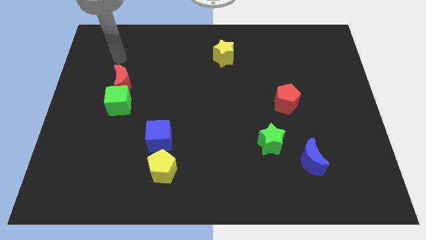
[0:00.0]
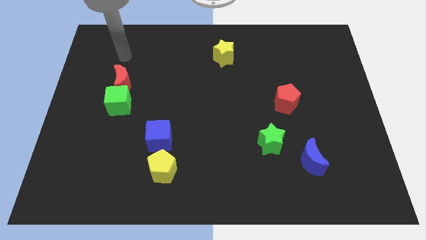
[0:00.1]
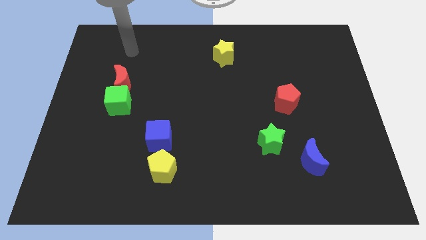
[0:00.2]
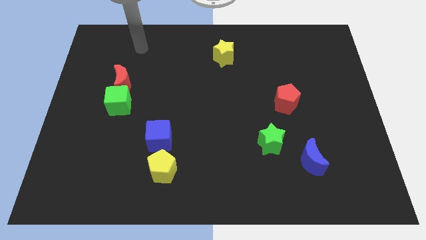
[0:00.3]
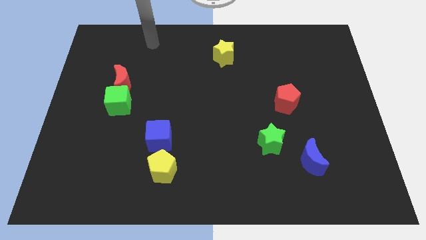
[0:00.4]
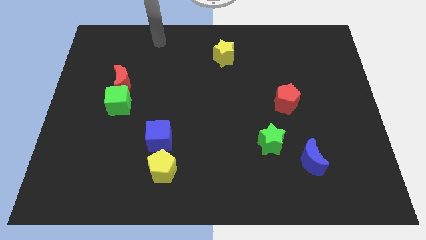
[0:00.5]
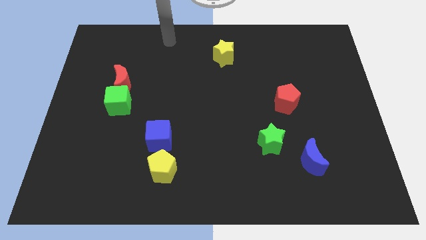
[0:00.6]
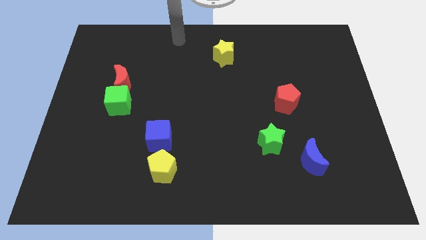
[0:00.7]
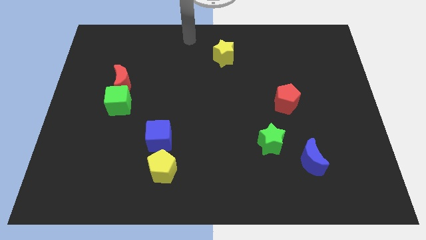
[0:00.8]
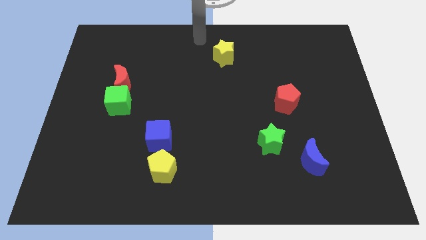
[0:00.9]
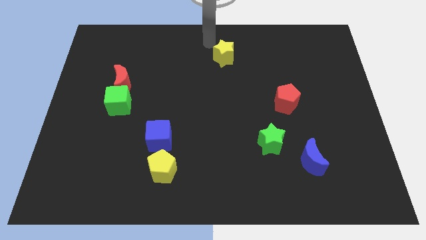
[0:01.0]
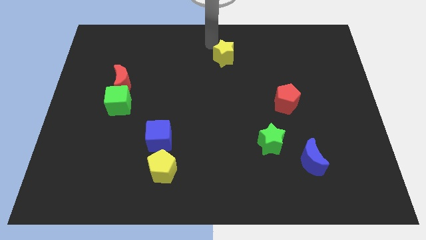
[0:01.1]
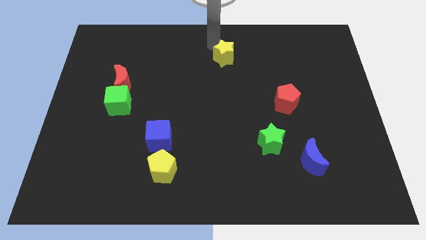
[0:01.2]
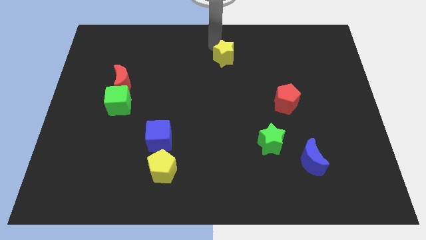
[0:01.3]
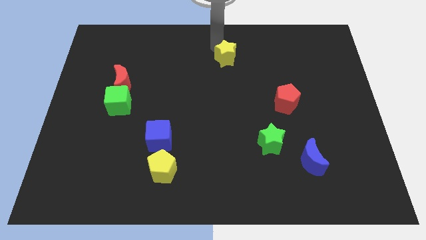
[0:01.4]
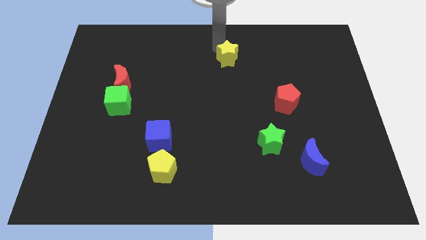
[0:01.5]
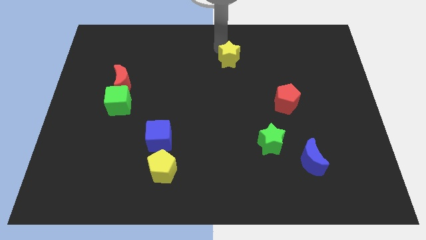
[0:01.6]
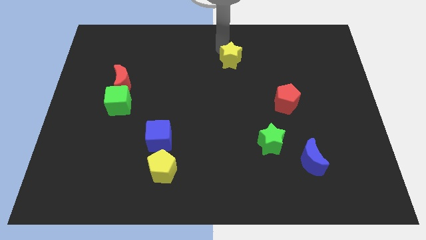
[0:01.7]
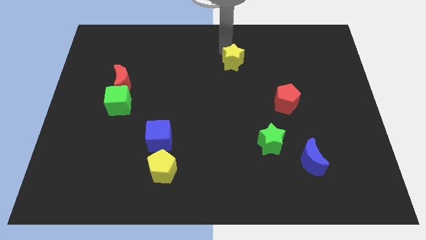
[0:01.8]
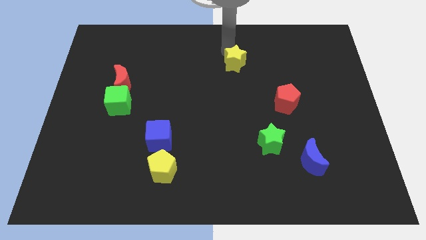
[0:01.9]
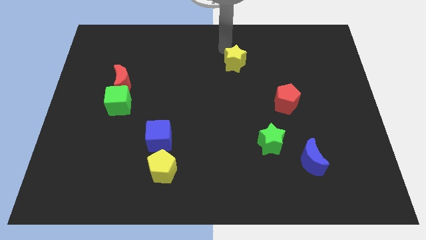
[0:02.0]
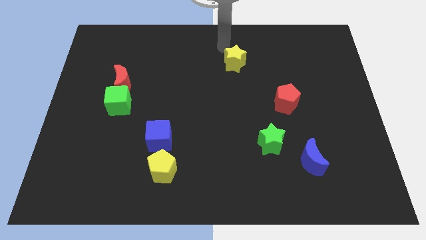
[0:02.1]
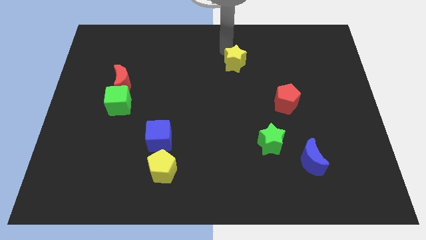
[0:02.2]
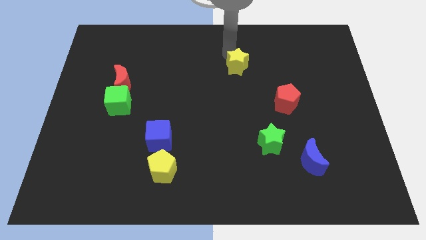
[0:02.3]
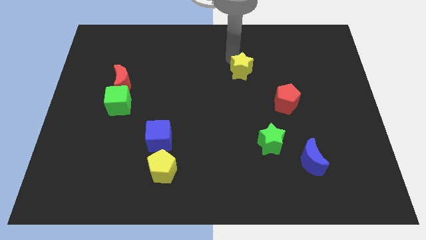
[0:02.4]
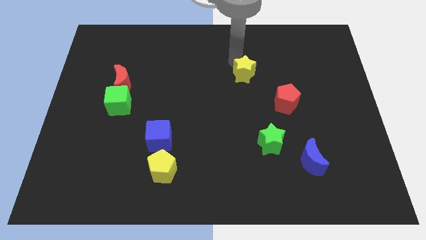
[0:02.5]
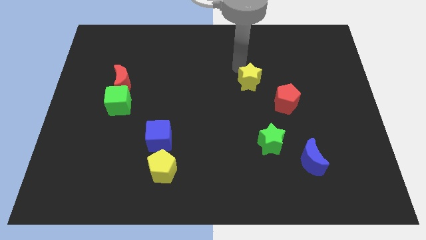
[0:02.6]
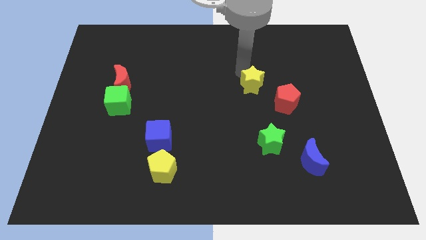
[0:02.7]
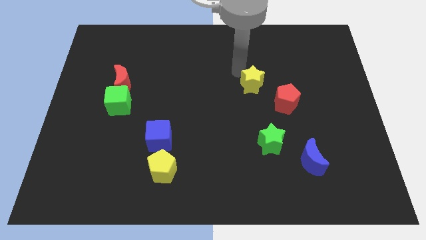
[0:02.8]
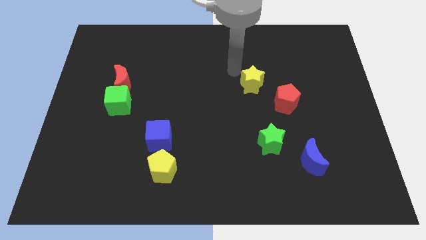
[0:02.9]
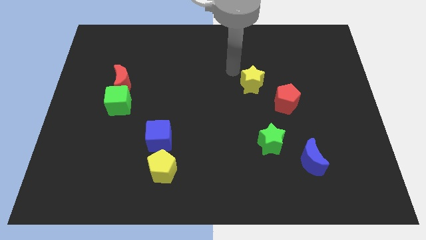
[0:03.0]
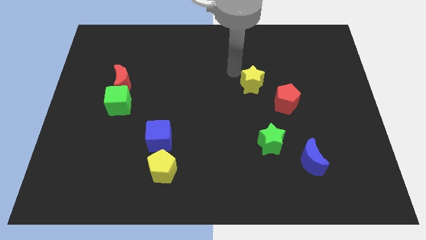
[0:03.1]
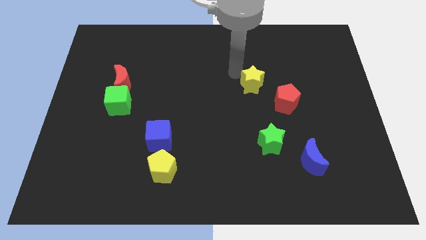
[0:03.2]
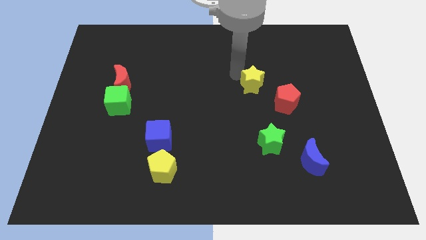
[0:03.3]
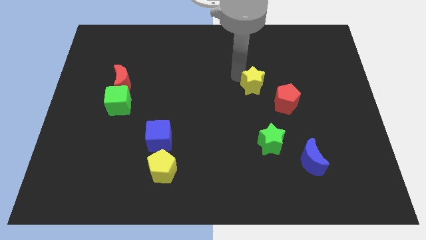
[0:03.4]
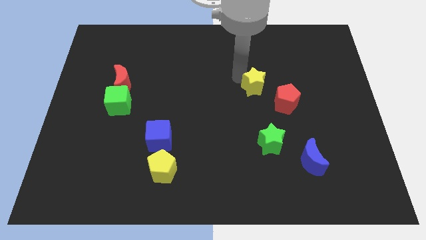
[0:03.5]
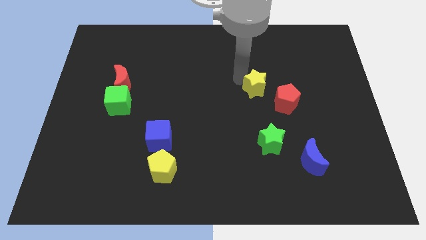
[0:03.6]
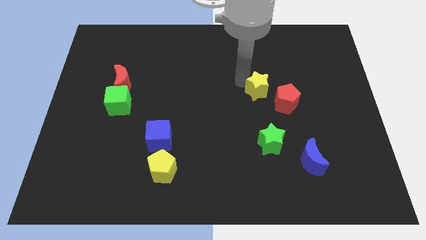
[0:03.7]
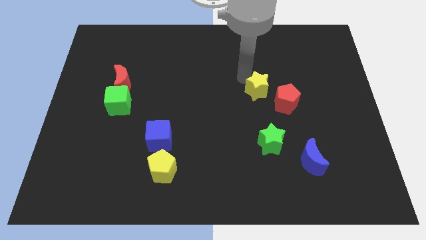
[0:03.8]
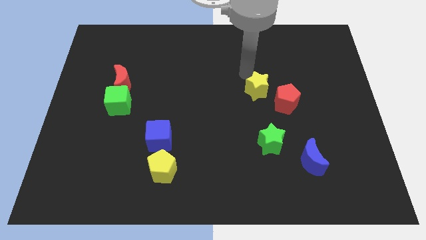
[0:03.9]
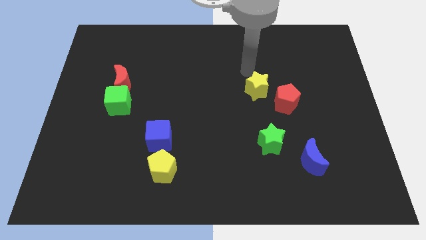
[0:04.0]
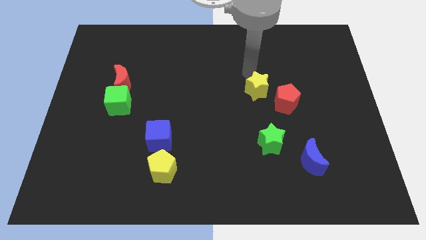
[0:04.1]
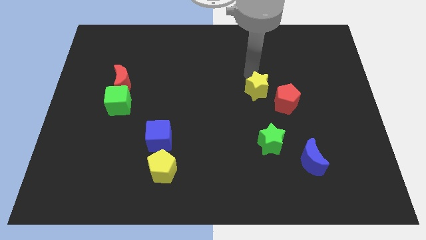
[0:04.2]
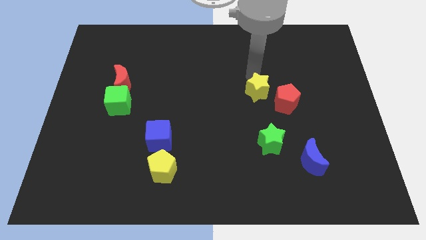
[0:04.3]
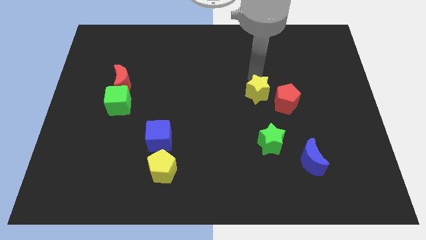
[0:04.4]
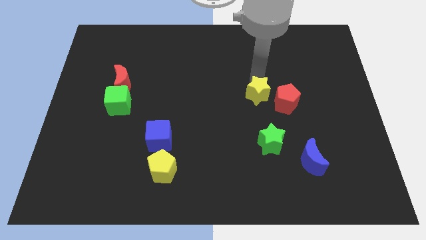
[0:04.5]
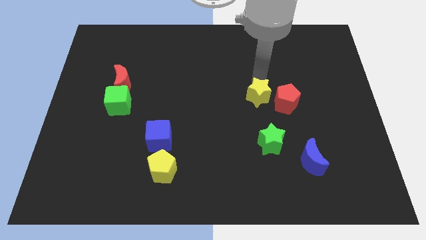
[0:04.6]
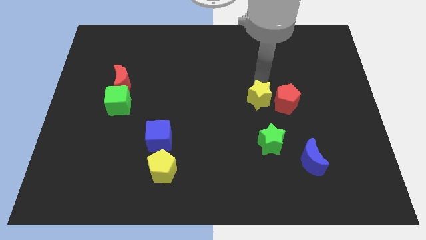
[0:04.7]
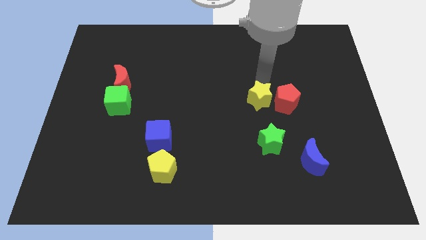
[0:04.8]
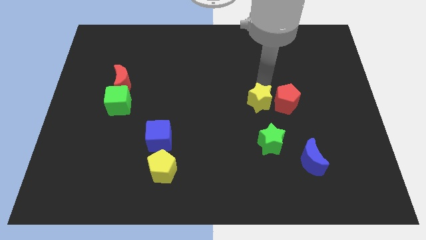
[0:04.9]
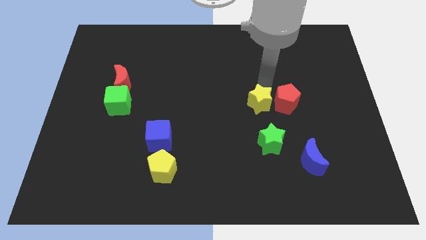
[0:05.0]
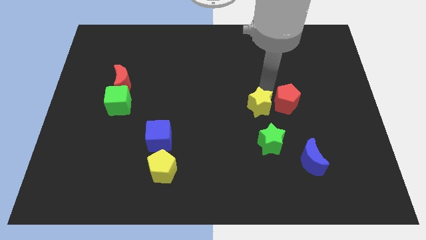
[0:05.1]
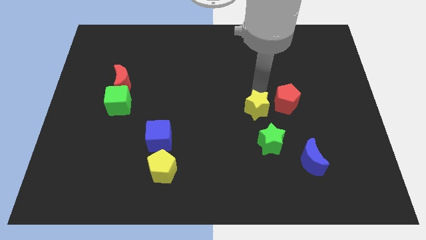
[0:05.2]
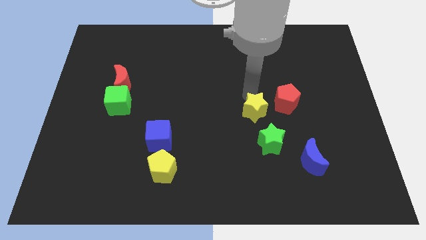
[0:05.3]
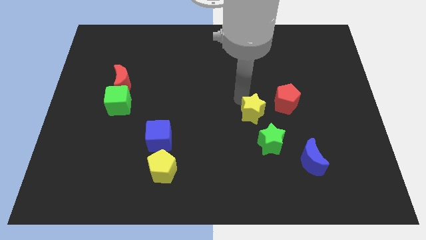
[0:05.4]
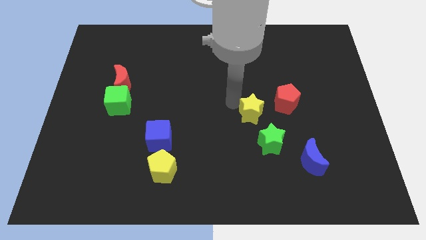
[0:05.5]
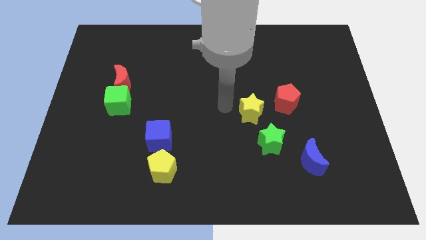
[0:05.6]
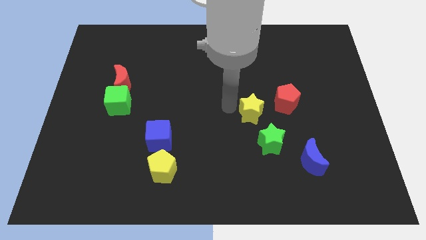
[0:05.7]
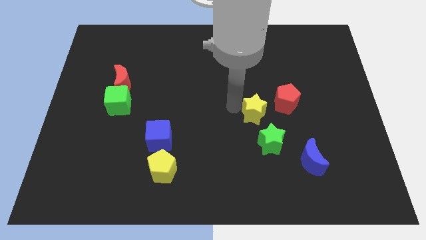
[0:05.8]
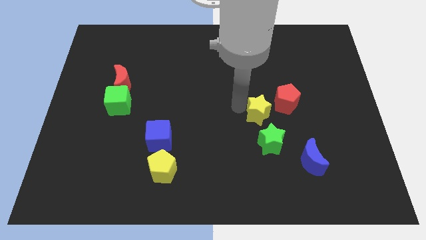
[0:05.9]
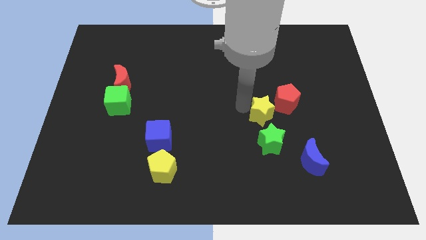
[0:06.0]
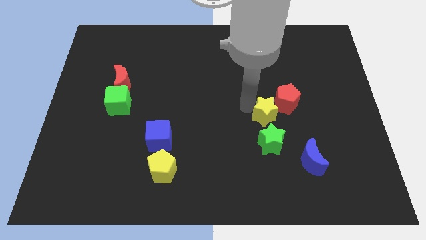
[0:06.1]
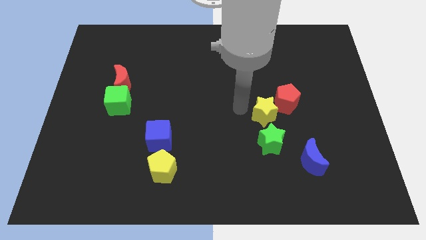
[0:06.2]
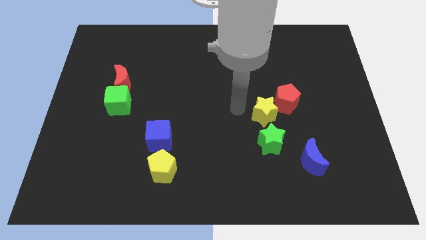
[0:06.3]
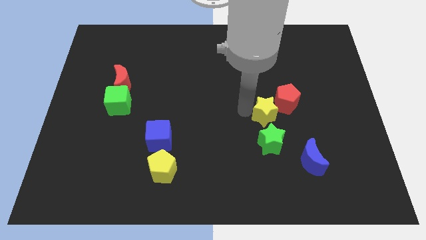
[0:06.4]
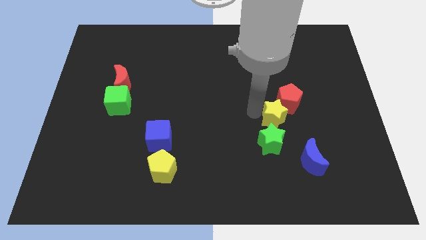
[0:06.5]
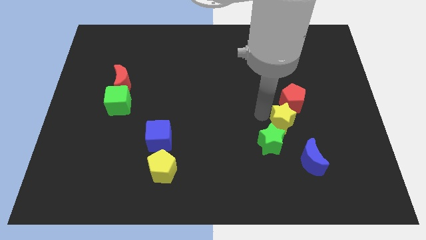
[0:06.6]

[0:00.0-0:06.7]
slide the yellow star to the top side of the blue moon

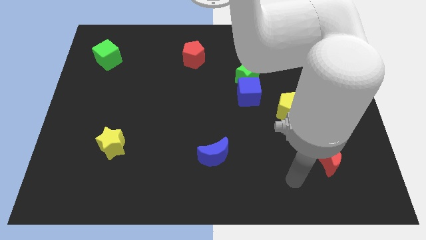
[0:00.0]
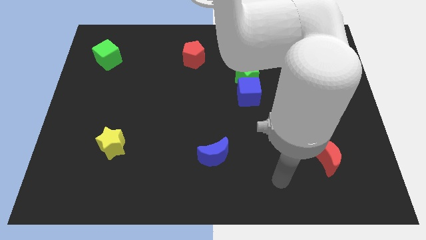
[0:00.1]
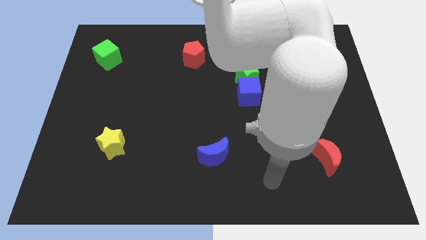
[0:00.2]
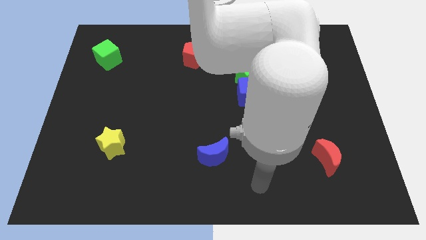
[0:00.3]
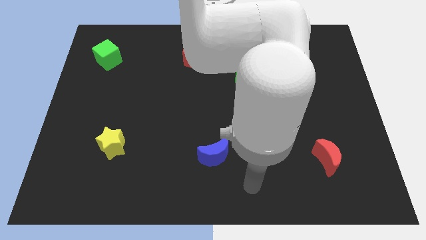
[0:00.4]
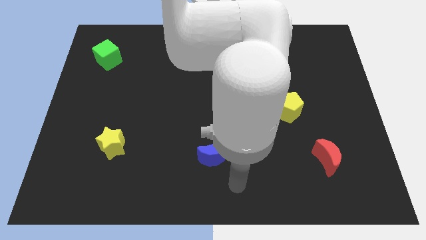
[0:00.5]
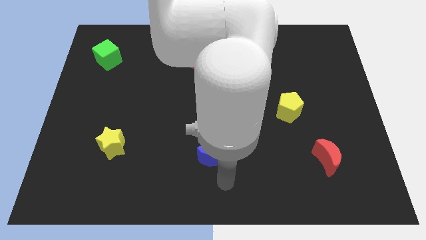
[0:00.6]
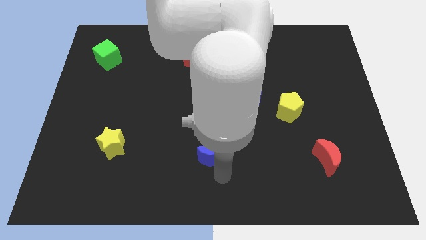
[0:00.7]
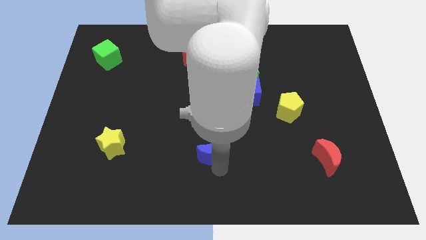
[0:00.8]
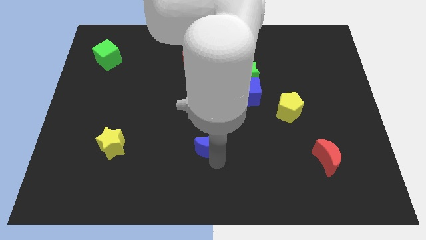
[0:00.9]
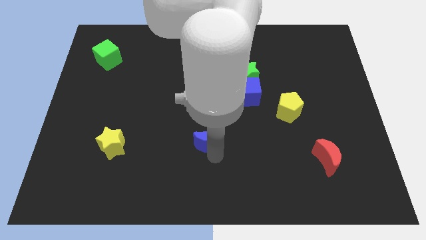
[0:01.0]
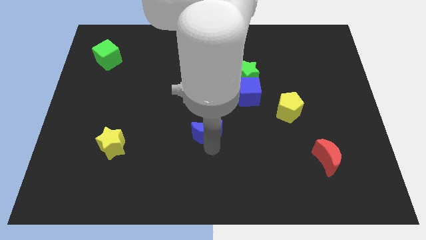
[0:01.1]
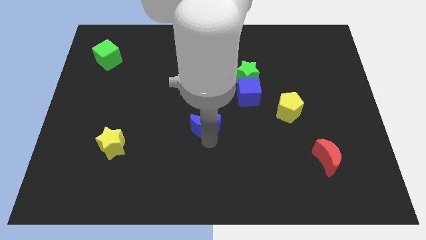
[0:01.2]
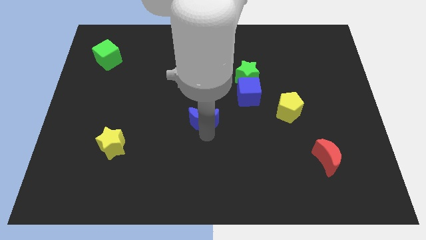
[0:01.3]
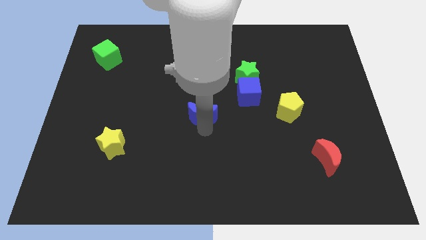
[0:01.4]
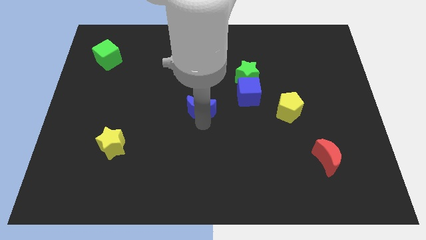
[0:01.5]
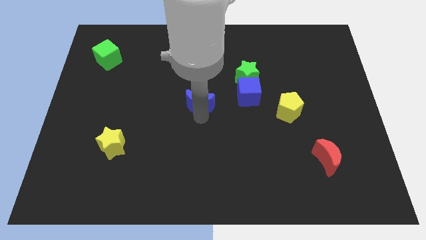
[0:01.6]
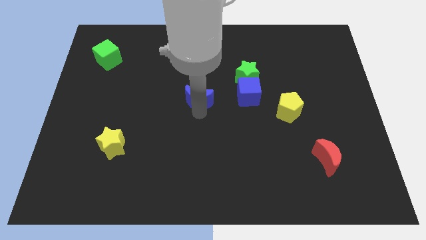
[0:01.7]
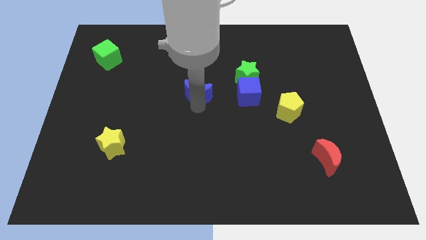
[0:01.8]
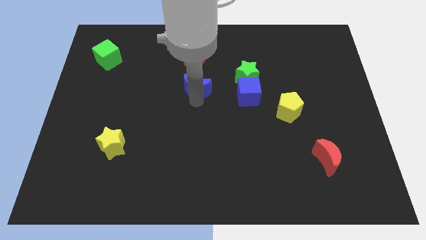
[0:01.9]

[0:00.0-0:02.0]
slide the blue moon left of the green star
